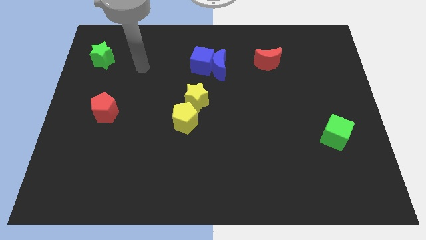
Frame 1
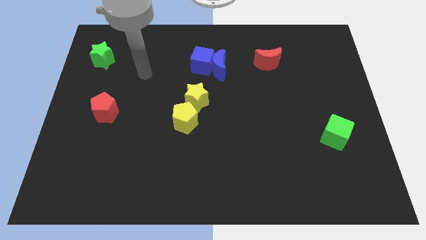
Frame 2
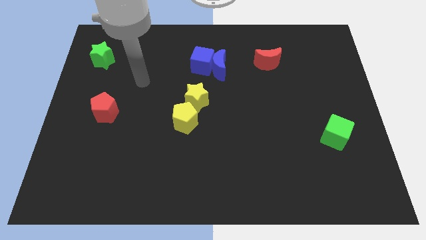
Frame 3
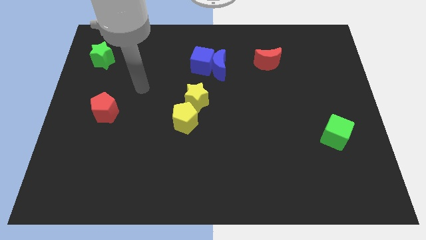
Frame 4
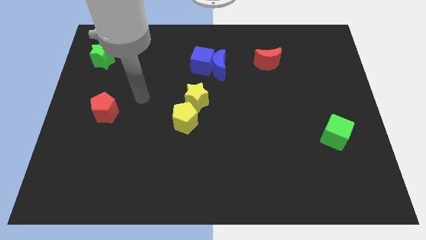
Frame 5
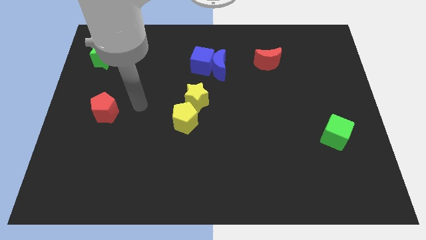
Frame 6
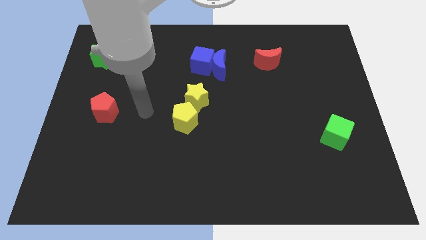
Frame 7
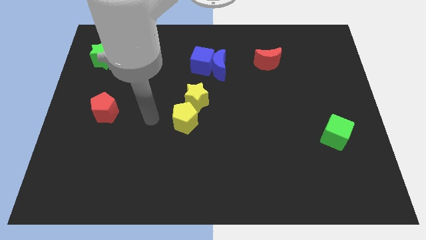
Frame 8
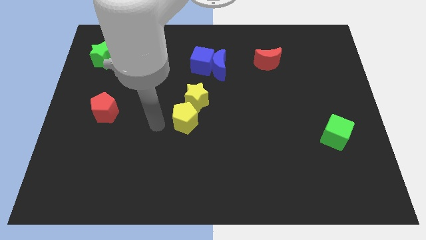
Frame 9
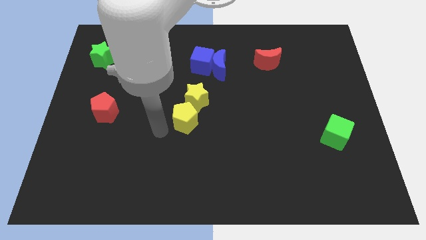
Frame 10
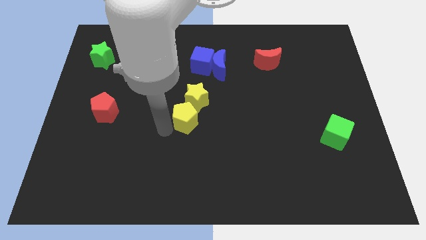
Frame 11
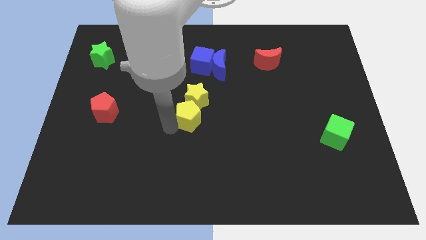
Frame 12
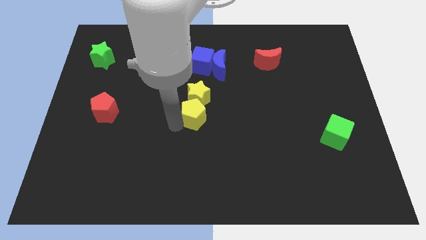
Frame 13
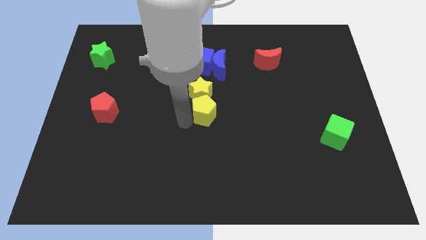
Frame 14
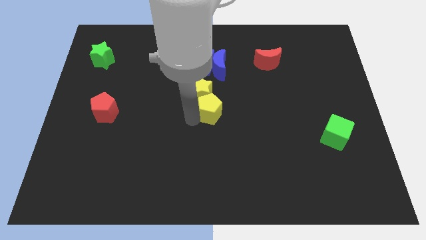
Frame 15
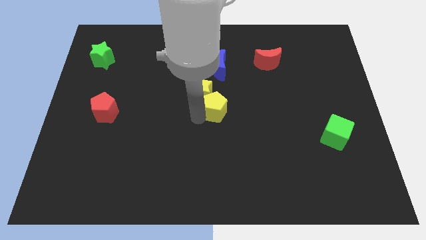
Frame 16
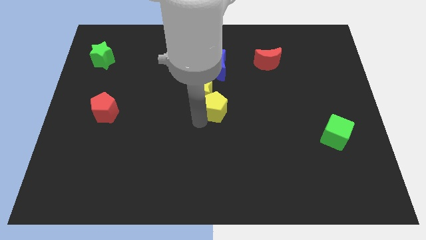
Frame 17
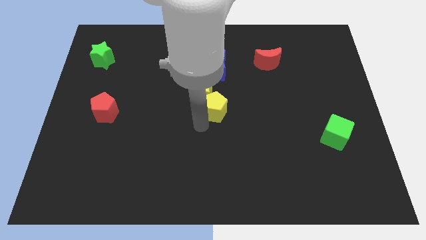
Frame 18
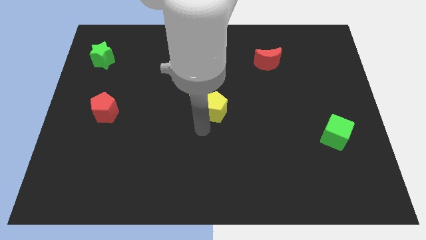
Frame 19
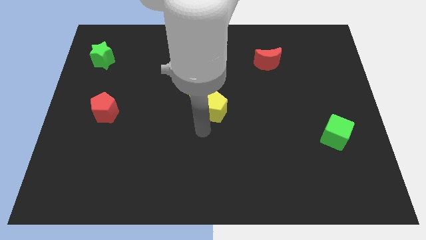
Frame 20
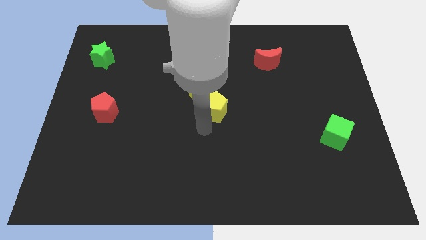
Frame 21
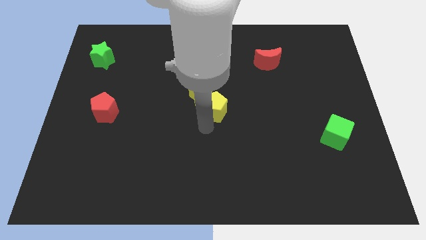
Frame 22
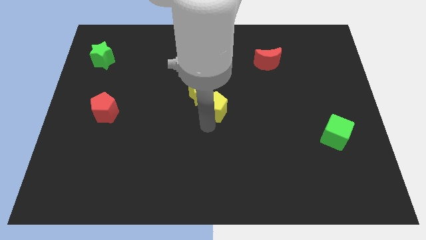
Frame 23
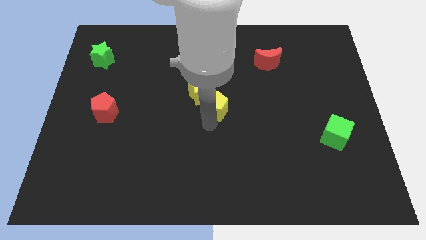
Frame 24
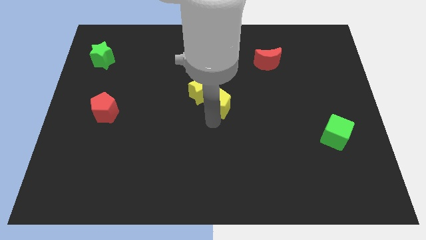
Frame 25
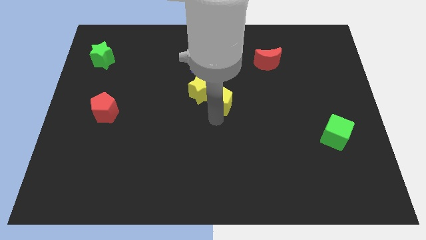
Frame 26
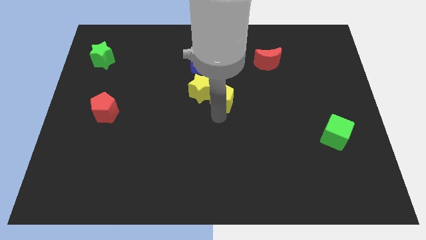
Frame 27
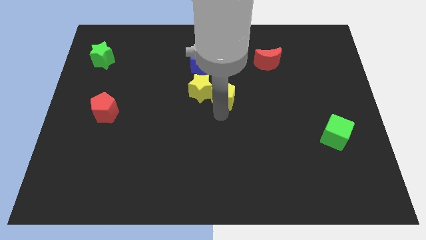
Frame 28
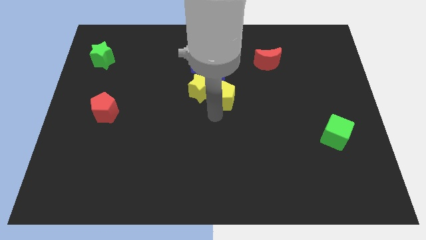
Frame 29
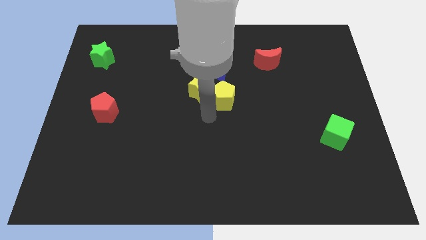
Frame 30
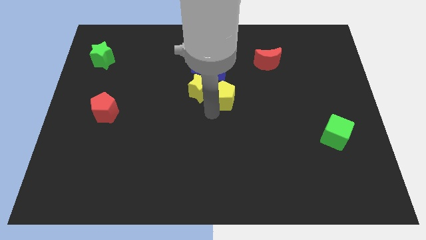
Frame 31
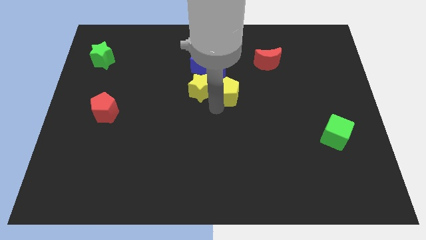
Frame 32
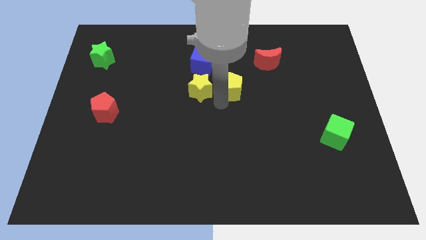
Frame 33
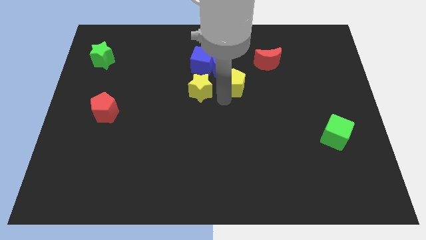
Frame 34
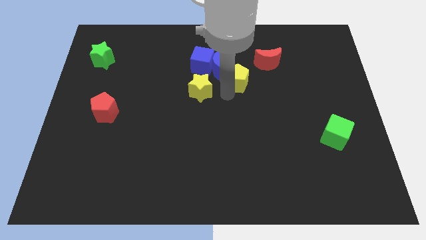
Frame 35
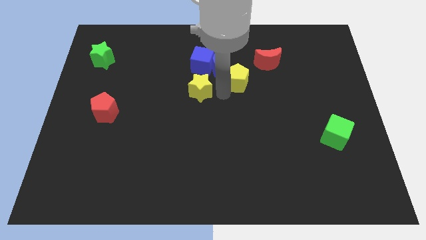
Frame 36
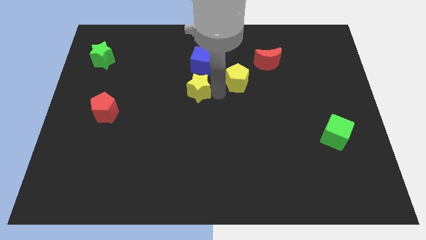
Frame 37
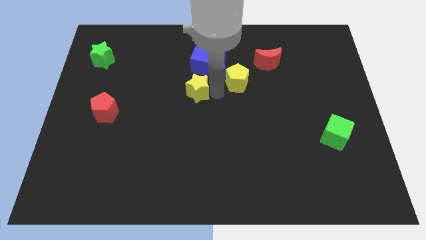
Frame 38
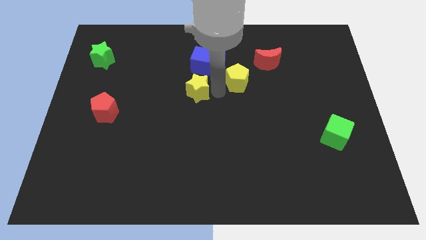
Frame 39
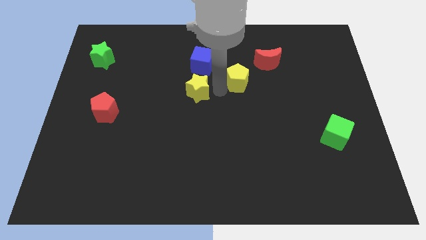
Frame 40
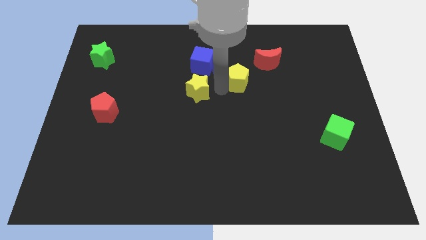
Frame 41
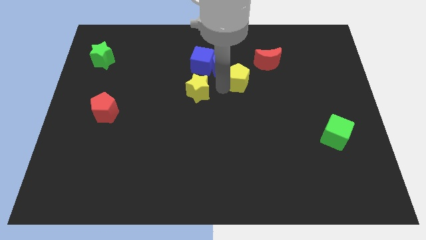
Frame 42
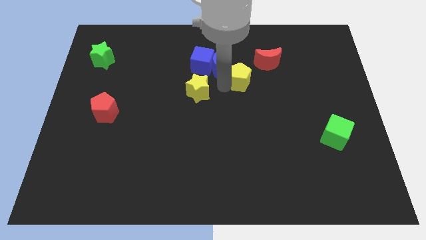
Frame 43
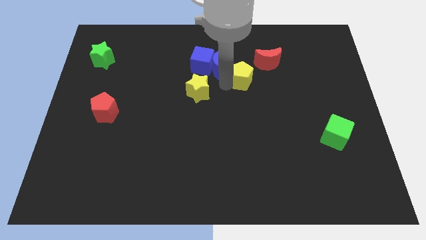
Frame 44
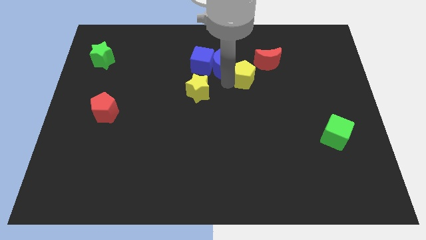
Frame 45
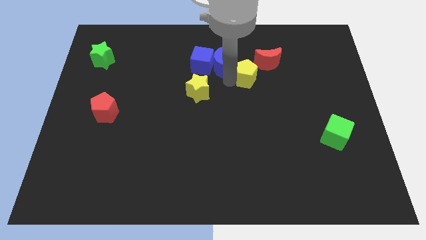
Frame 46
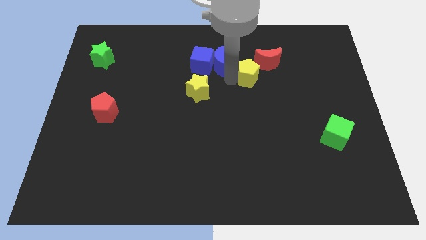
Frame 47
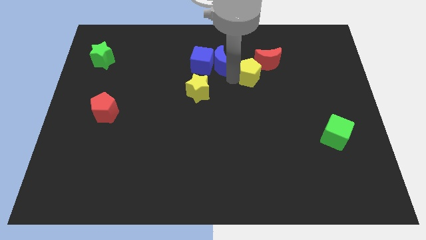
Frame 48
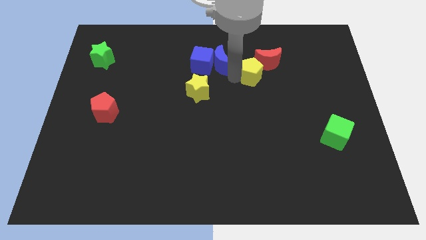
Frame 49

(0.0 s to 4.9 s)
slide the yellow pentagon towards the red moon

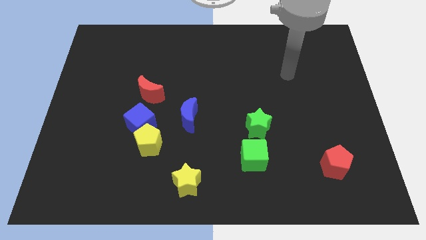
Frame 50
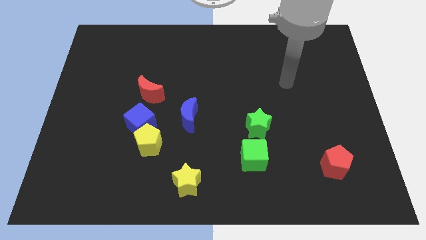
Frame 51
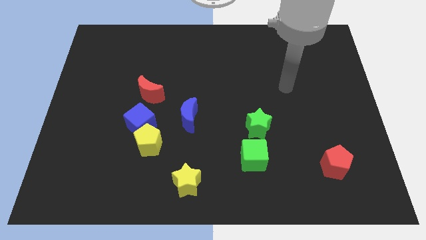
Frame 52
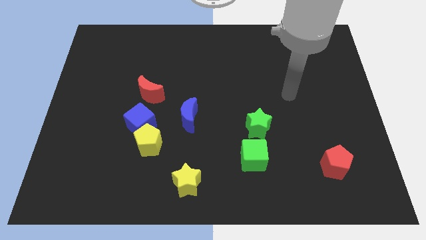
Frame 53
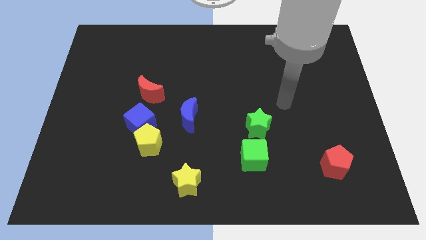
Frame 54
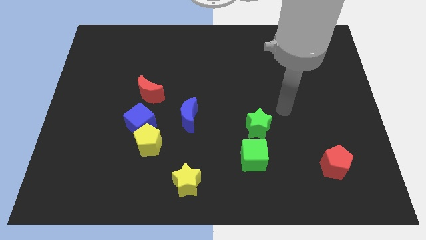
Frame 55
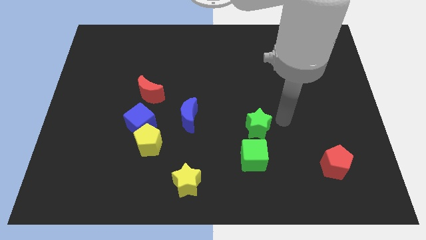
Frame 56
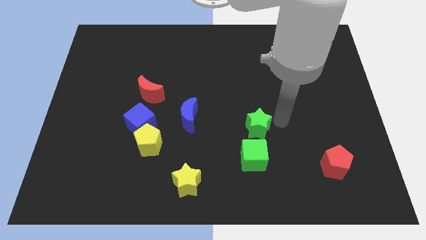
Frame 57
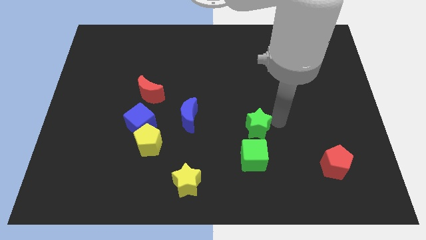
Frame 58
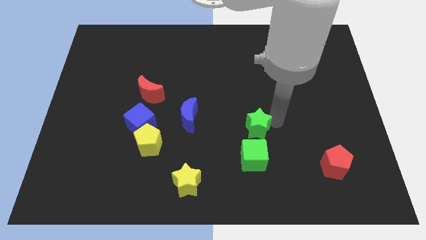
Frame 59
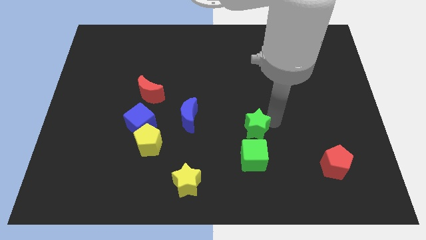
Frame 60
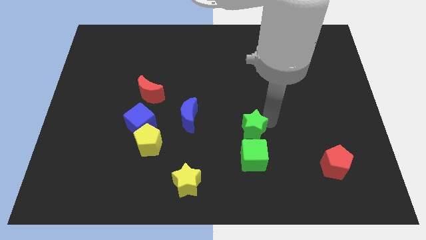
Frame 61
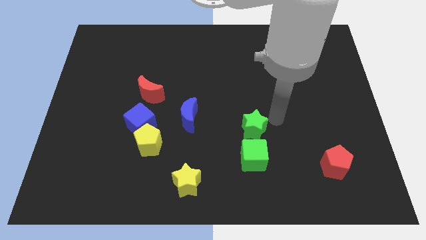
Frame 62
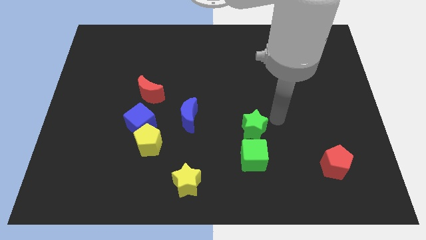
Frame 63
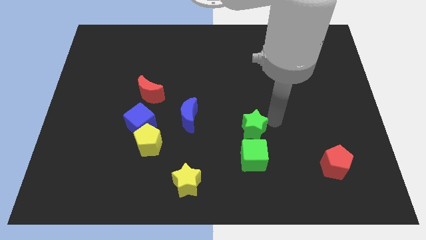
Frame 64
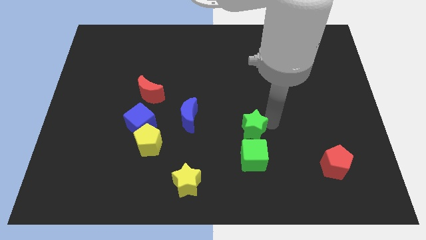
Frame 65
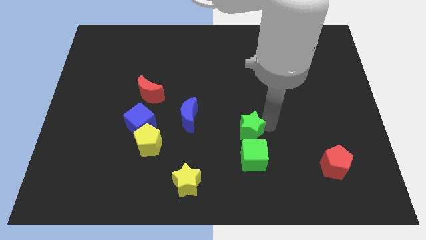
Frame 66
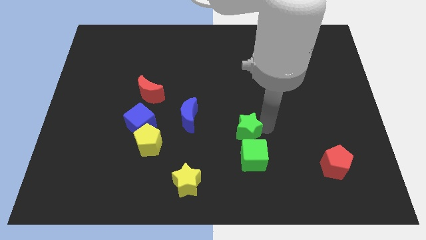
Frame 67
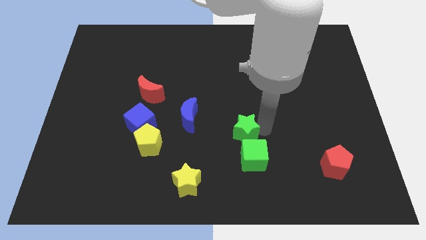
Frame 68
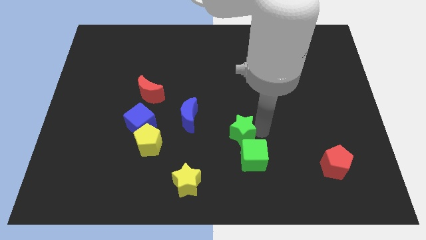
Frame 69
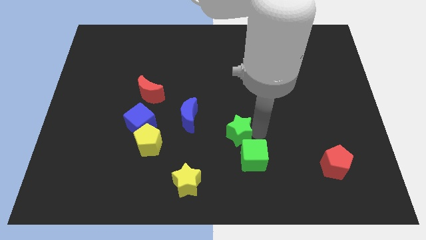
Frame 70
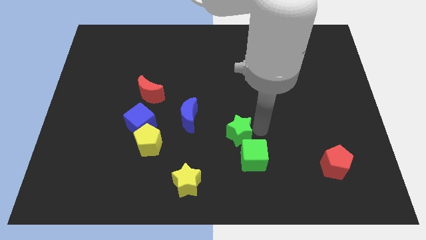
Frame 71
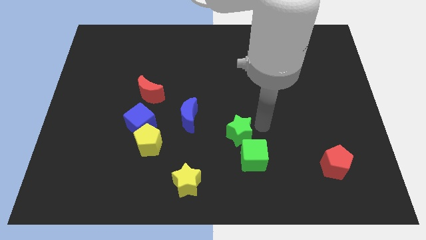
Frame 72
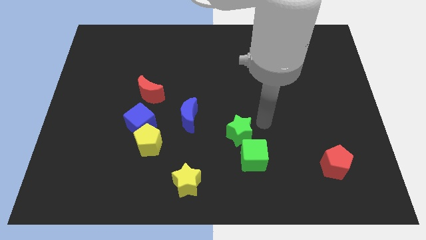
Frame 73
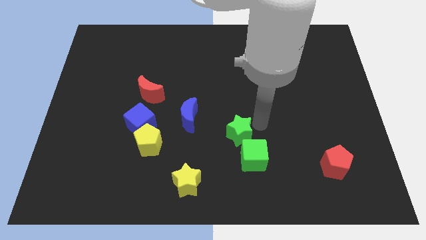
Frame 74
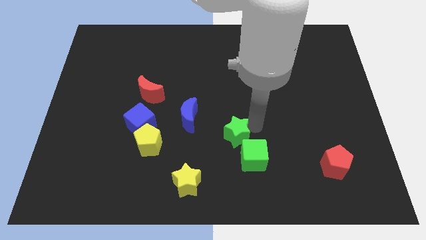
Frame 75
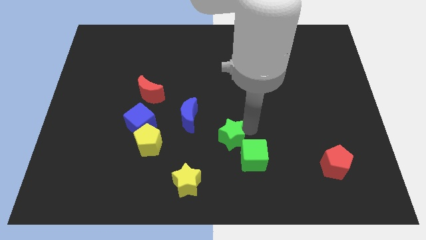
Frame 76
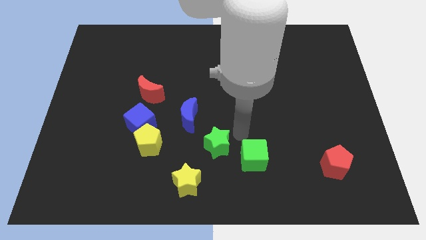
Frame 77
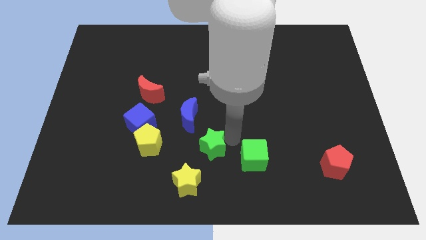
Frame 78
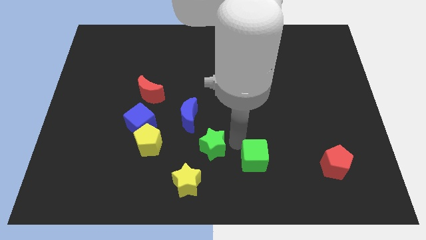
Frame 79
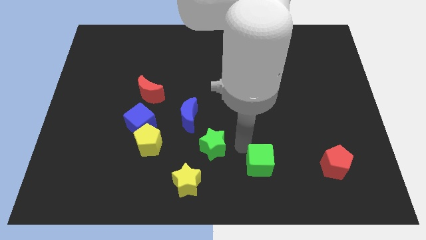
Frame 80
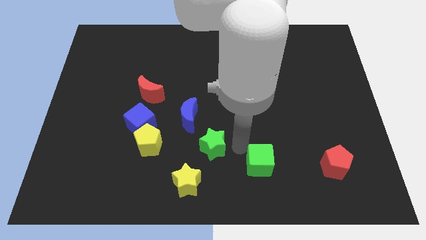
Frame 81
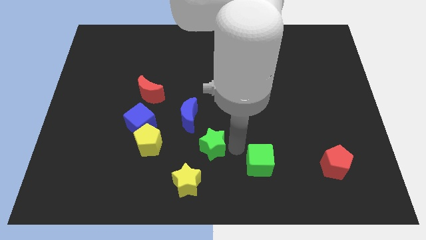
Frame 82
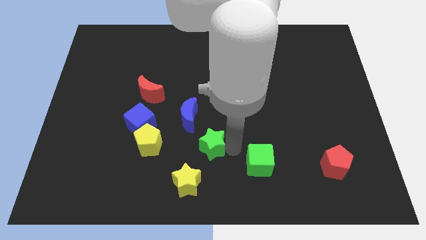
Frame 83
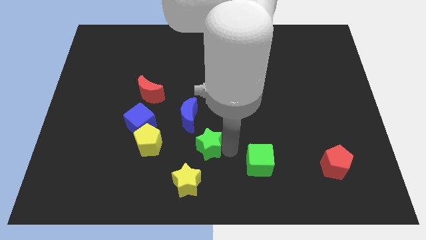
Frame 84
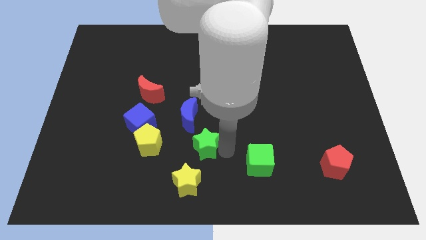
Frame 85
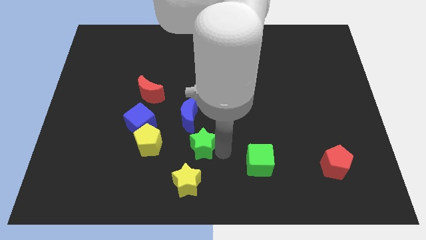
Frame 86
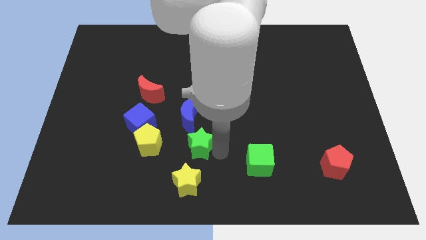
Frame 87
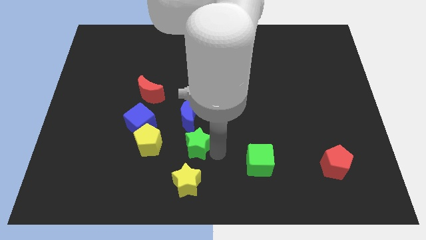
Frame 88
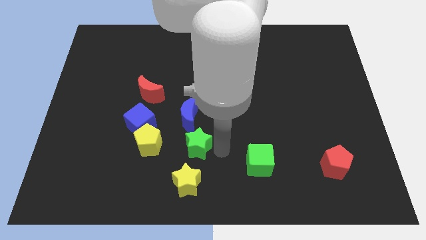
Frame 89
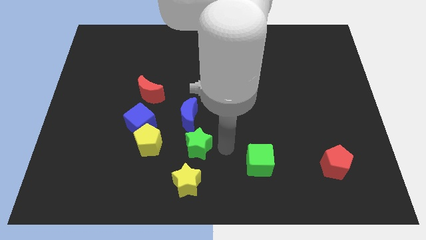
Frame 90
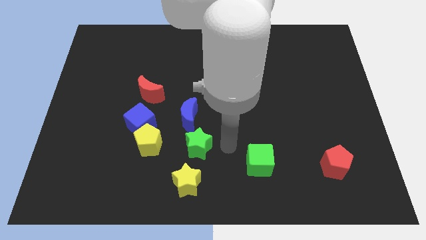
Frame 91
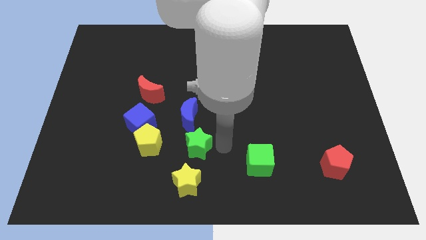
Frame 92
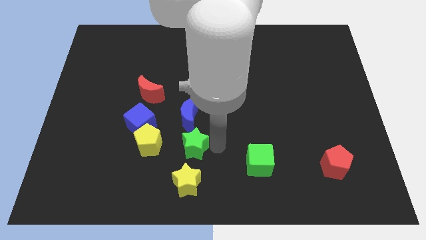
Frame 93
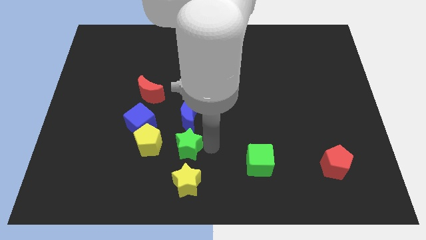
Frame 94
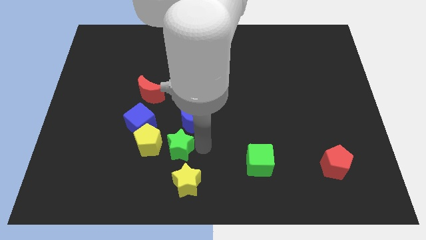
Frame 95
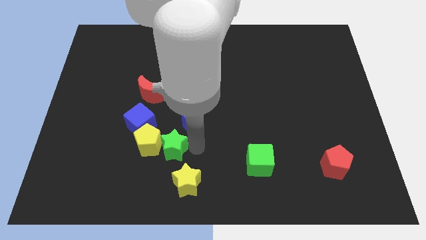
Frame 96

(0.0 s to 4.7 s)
slide the green star towards the yellow pentagon
